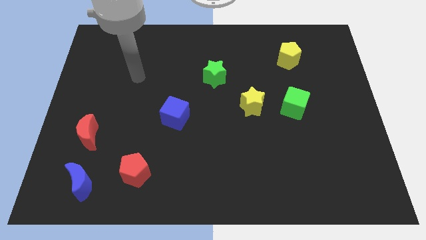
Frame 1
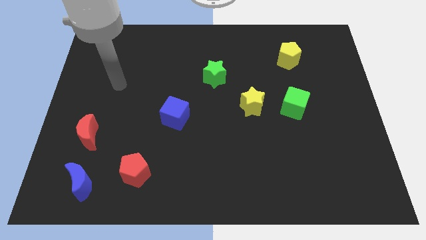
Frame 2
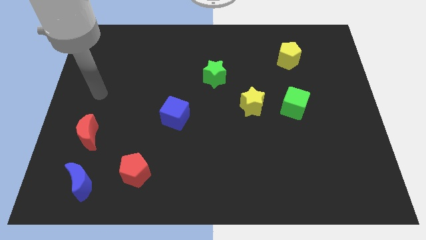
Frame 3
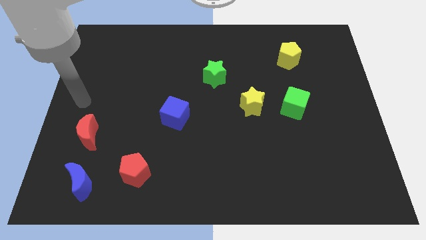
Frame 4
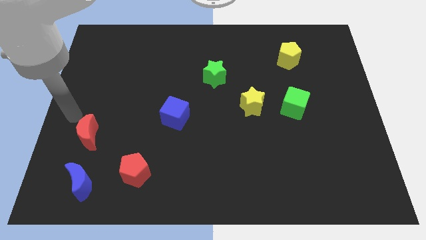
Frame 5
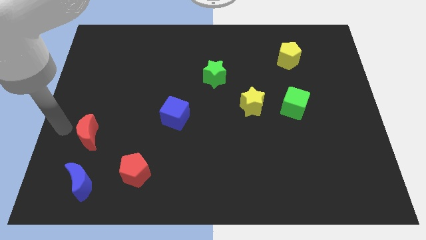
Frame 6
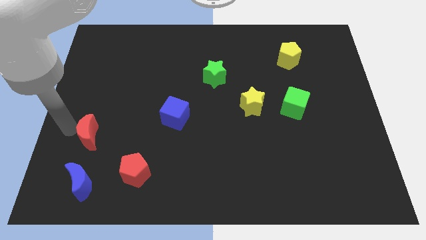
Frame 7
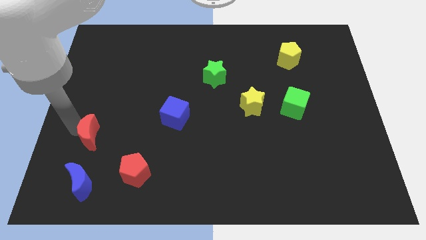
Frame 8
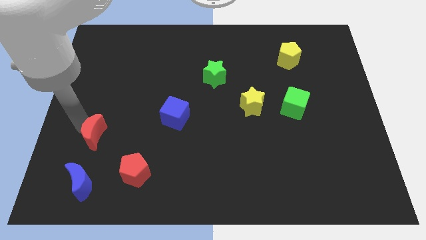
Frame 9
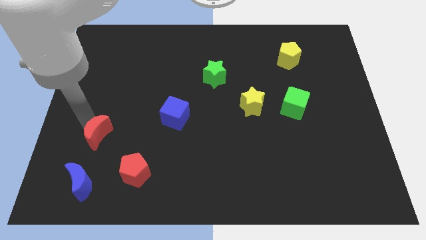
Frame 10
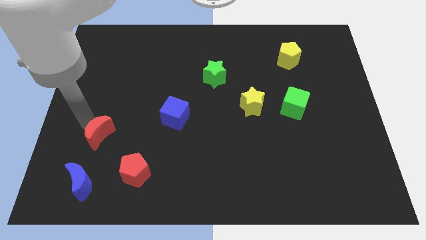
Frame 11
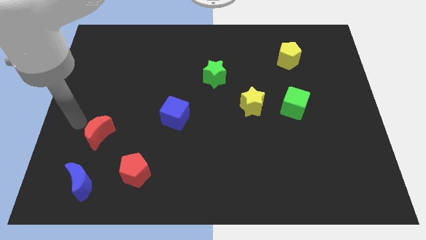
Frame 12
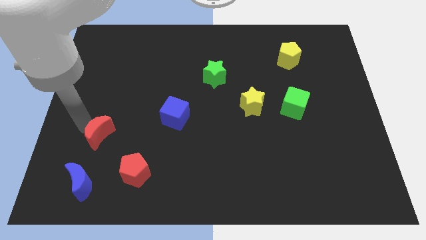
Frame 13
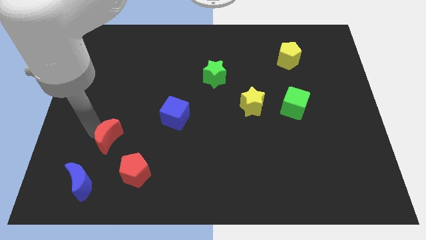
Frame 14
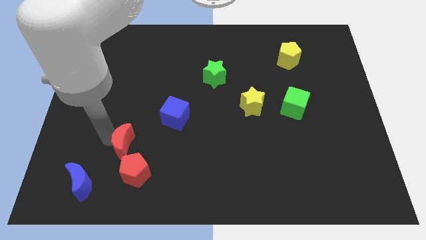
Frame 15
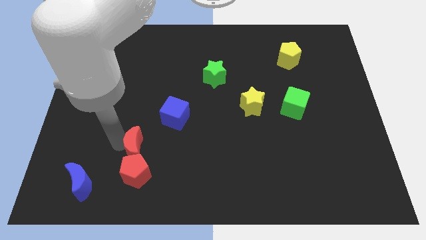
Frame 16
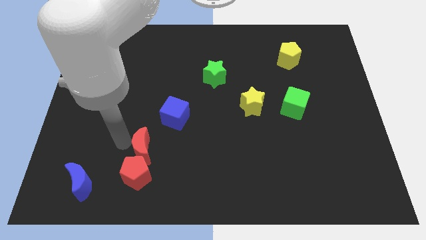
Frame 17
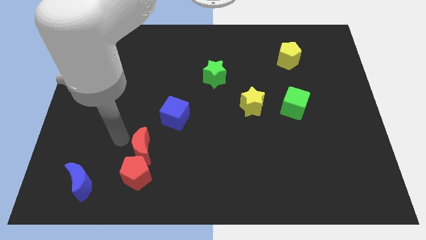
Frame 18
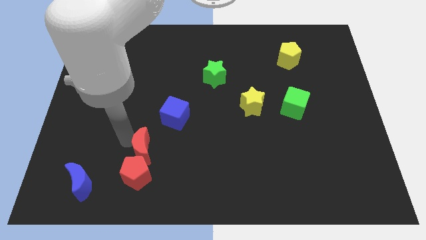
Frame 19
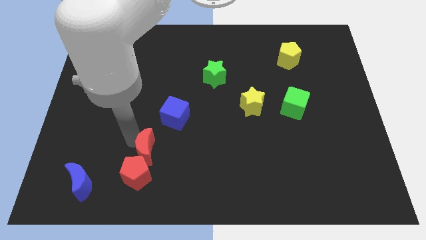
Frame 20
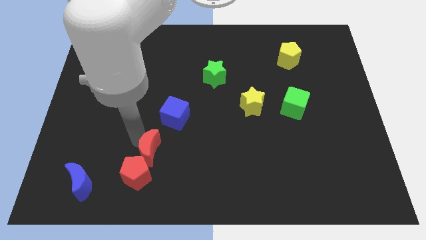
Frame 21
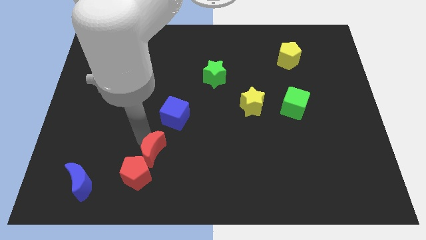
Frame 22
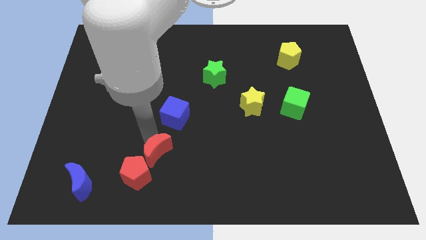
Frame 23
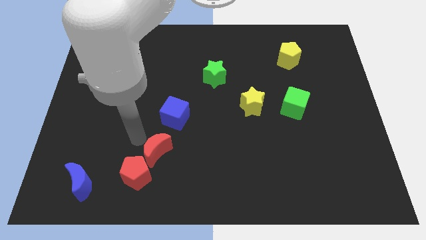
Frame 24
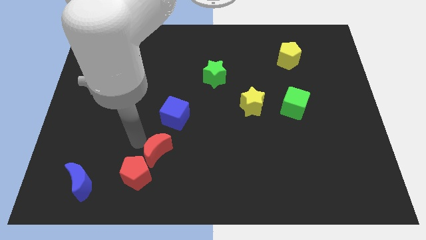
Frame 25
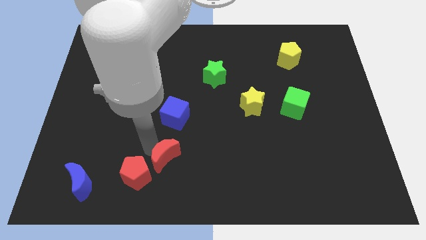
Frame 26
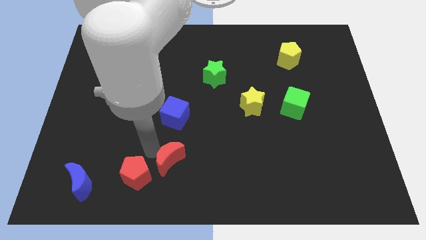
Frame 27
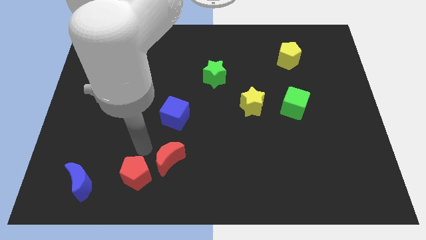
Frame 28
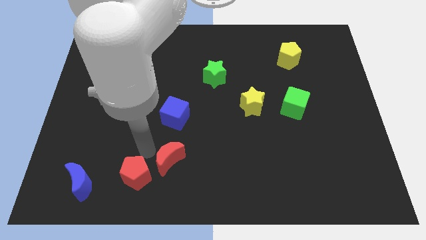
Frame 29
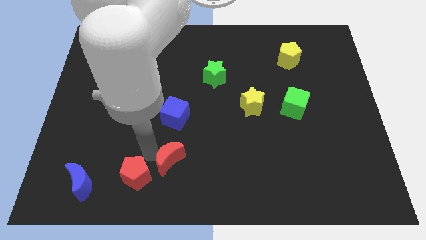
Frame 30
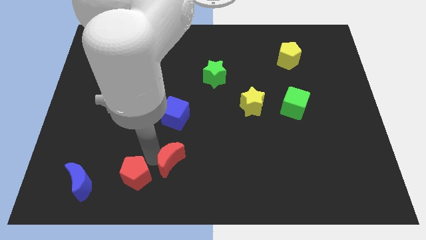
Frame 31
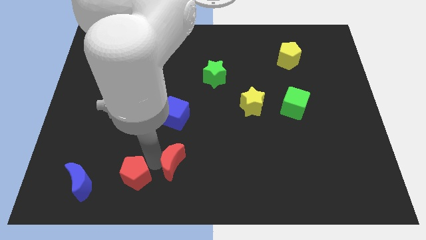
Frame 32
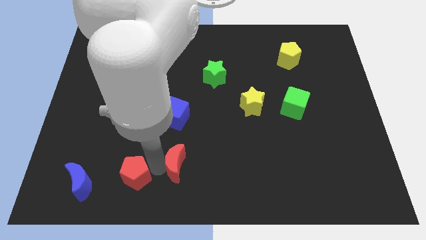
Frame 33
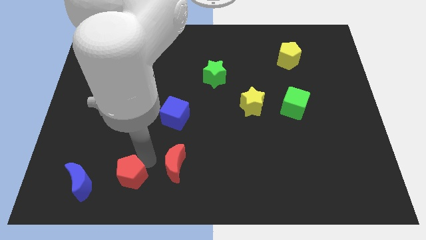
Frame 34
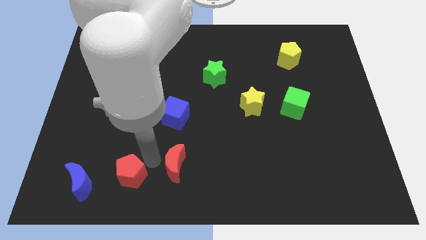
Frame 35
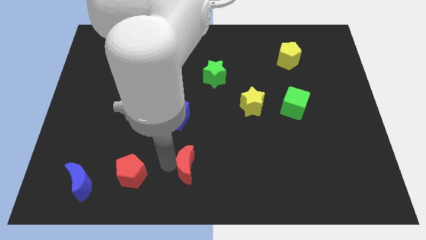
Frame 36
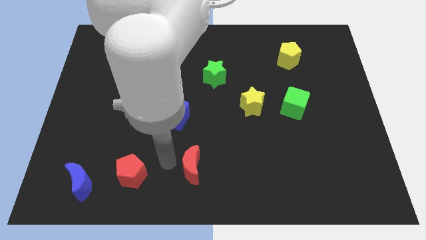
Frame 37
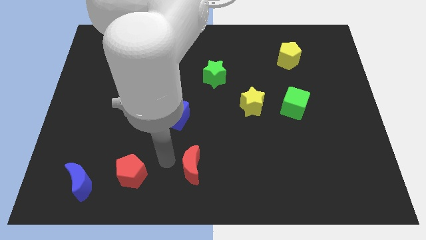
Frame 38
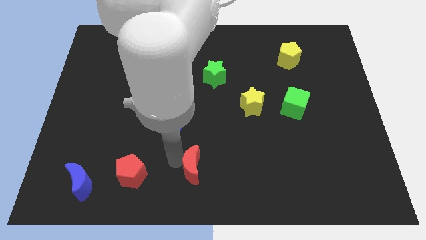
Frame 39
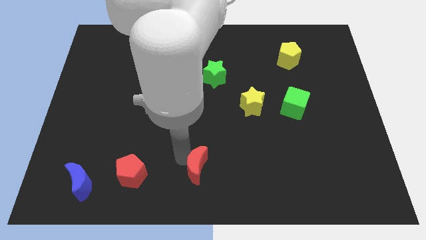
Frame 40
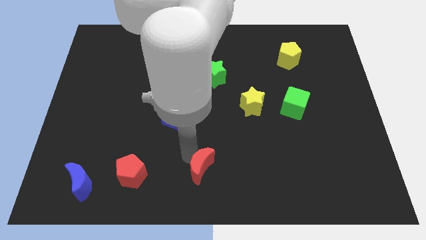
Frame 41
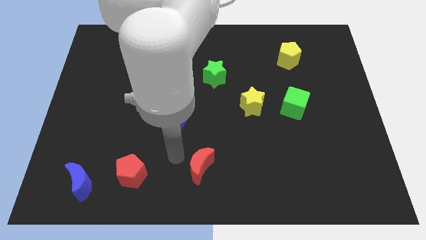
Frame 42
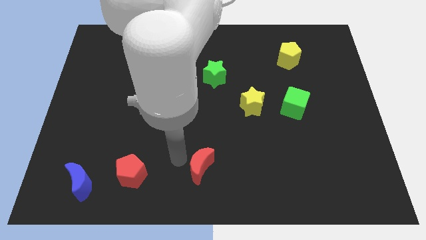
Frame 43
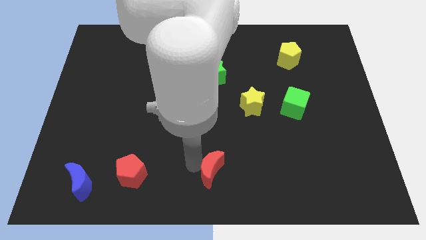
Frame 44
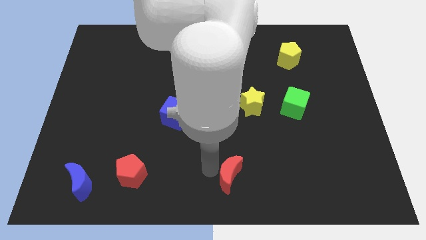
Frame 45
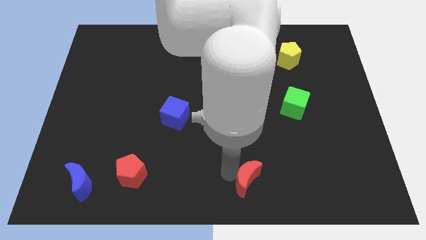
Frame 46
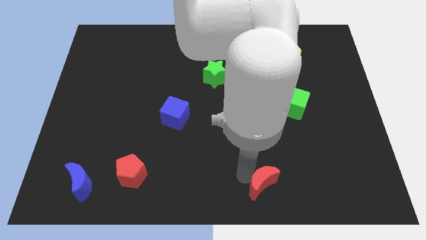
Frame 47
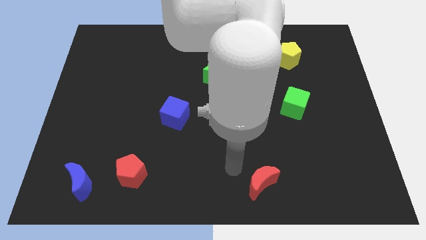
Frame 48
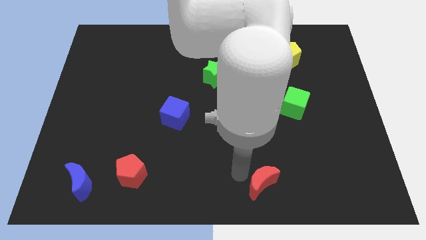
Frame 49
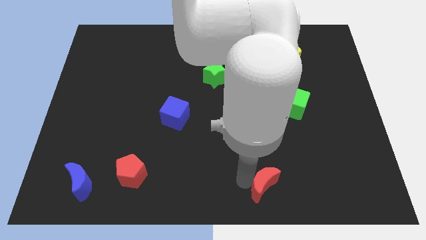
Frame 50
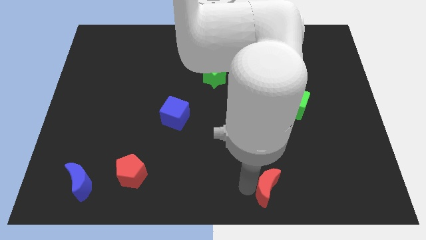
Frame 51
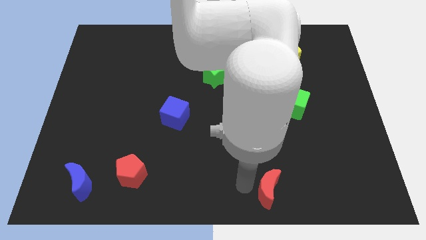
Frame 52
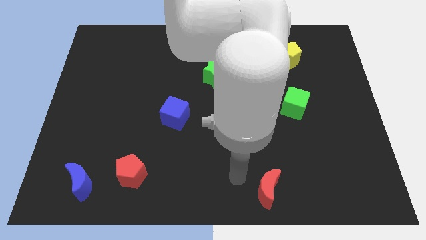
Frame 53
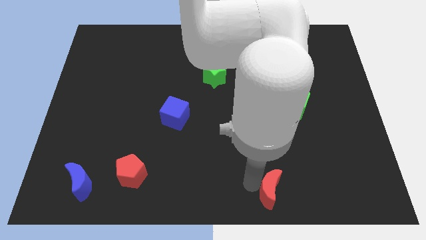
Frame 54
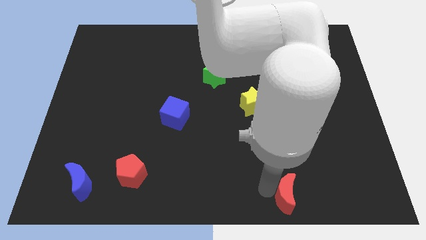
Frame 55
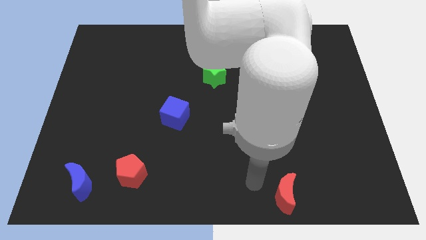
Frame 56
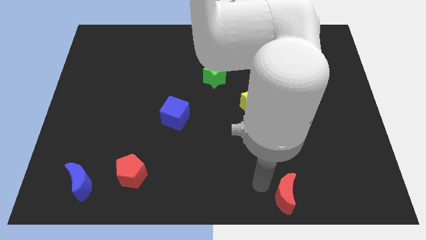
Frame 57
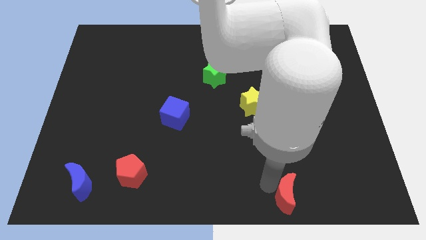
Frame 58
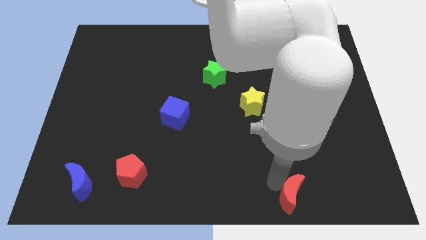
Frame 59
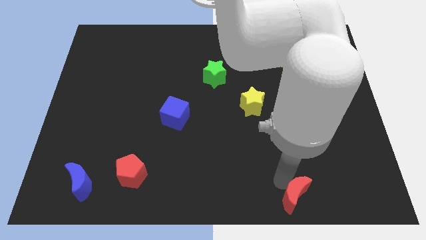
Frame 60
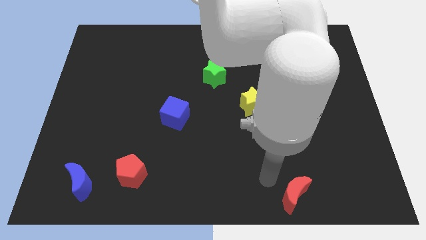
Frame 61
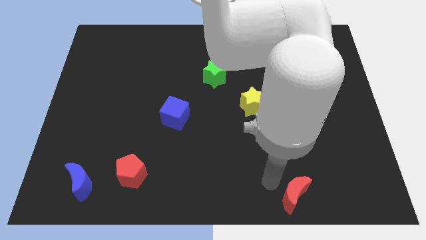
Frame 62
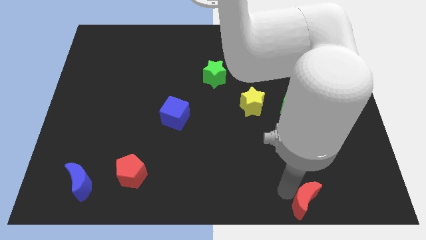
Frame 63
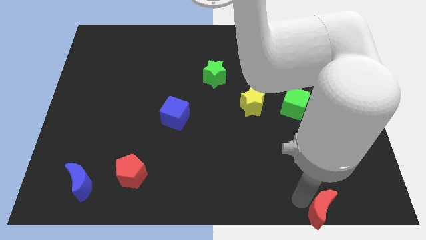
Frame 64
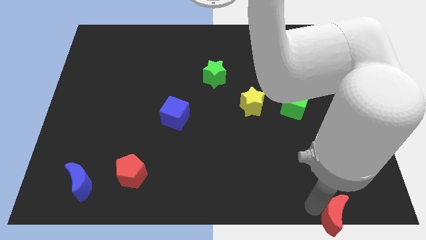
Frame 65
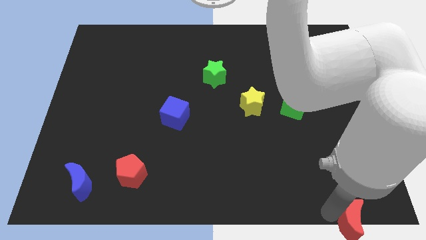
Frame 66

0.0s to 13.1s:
move the red moon to the bottom right of the board

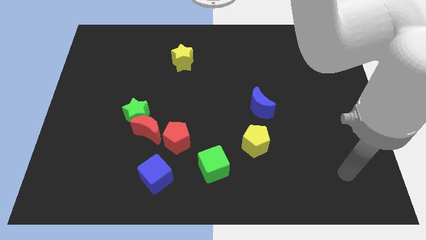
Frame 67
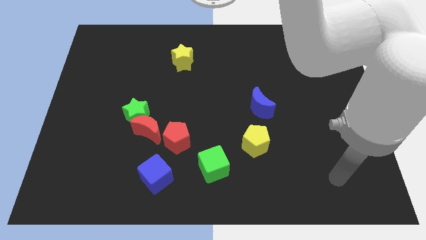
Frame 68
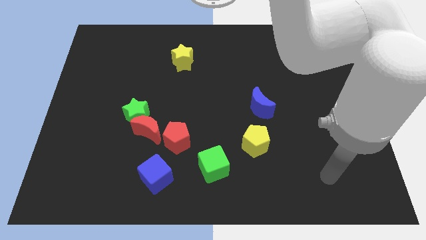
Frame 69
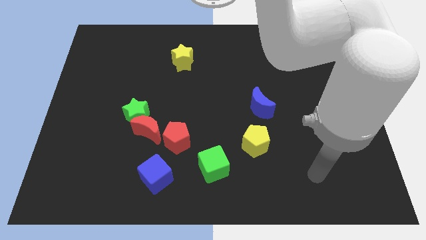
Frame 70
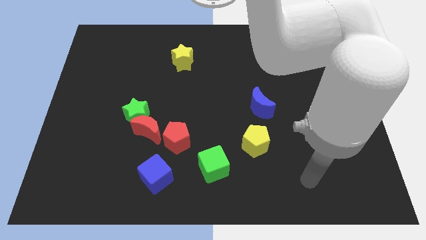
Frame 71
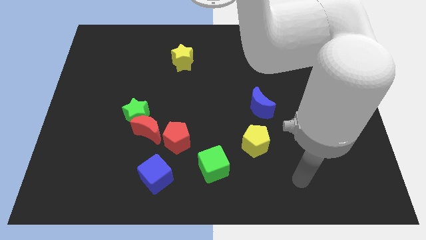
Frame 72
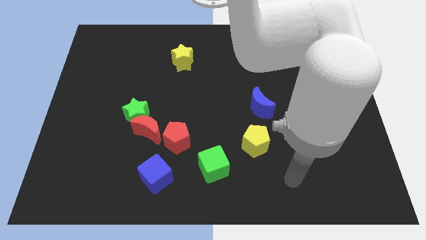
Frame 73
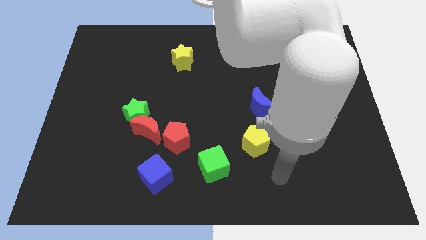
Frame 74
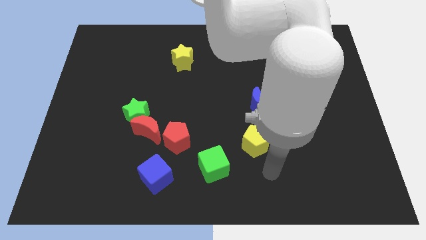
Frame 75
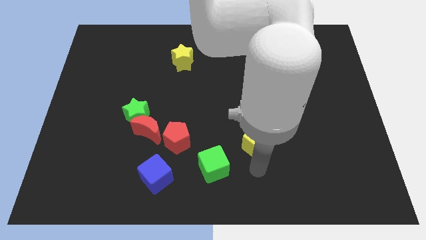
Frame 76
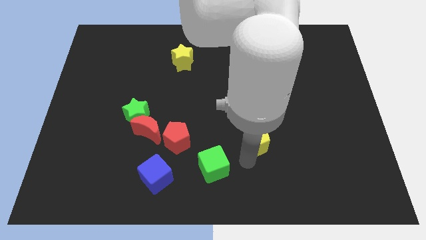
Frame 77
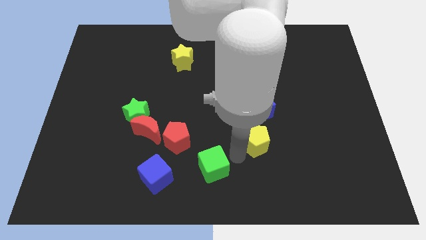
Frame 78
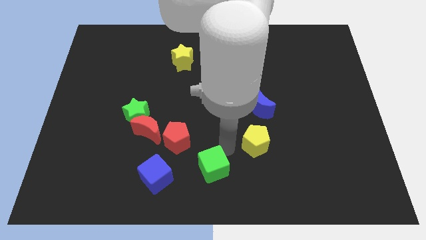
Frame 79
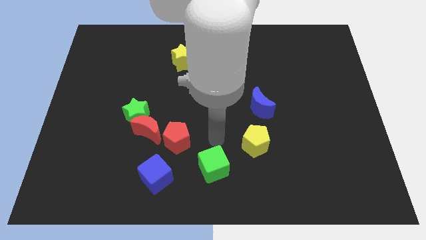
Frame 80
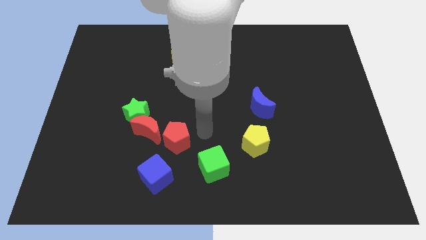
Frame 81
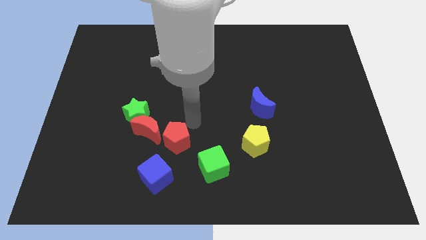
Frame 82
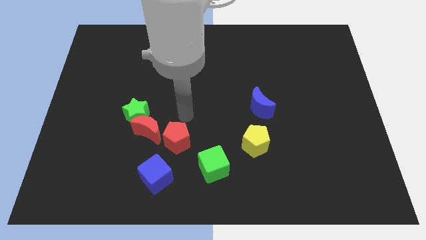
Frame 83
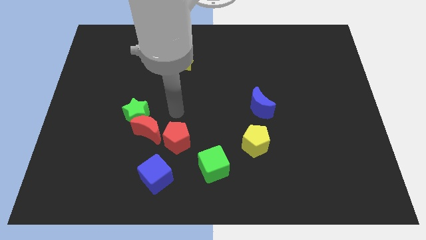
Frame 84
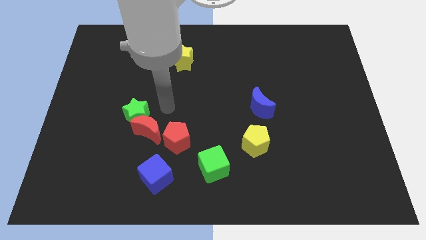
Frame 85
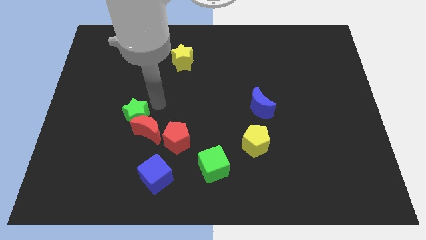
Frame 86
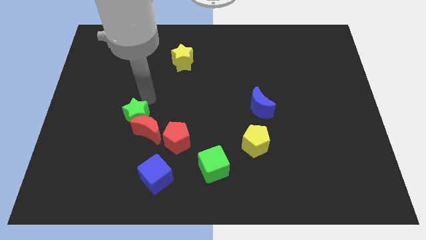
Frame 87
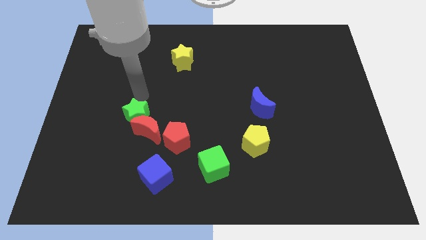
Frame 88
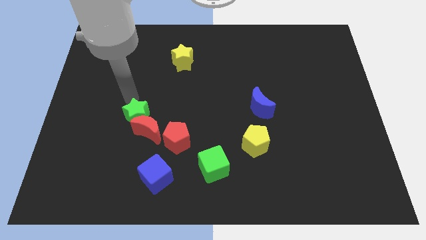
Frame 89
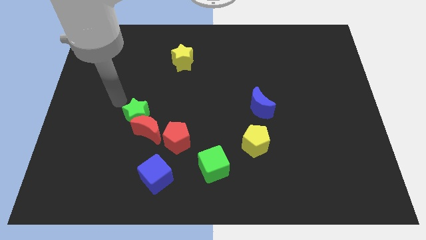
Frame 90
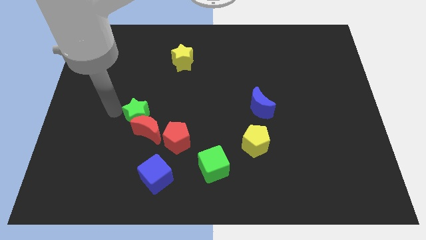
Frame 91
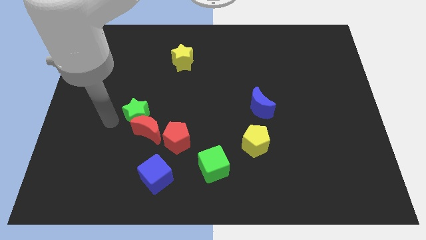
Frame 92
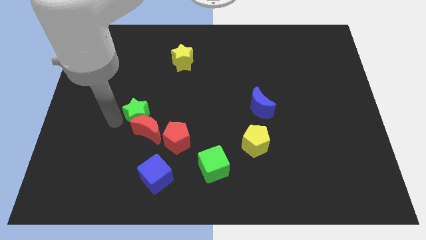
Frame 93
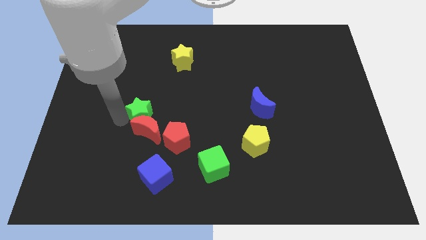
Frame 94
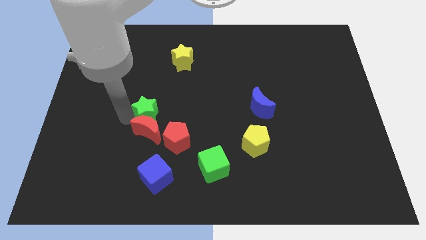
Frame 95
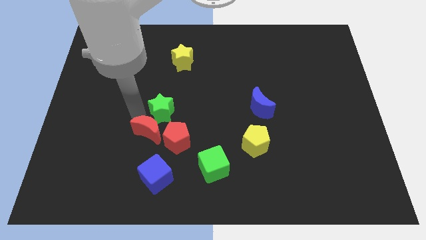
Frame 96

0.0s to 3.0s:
slide the green star to the middle
